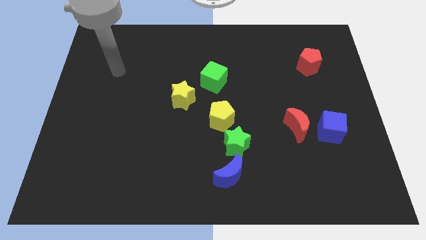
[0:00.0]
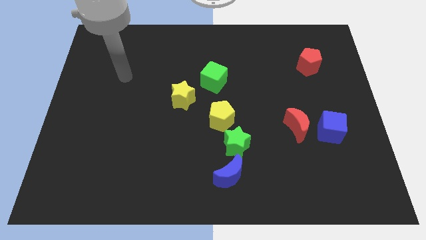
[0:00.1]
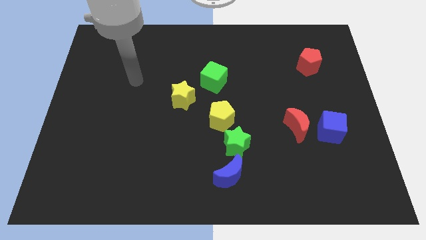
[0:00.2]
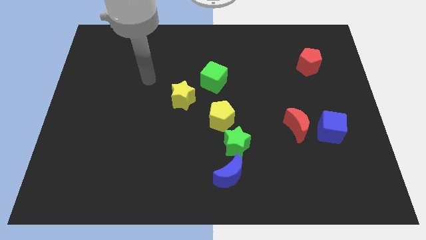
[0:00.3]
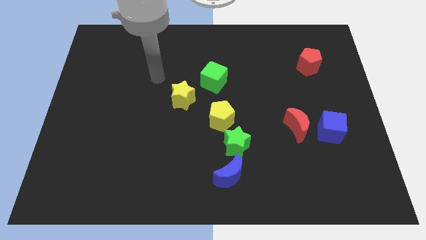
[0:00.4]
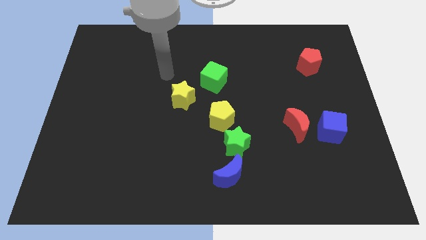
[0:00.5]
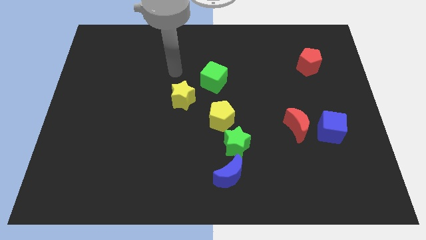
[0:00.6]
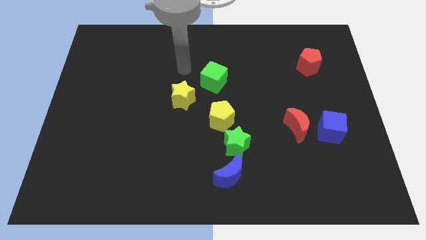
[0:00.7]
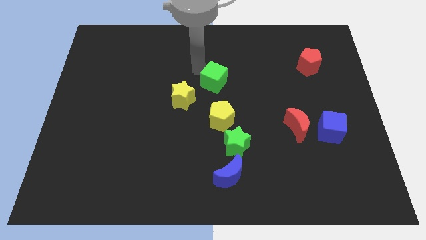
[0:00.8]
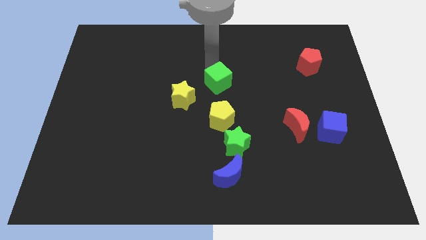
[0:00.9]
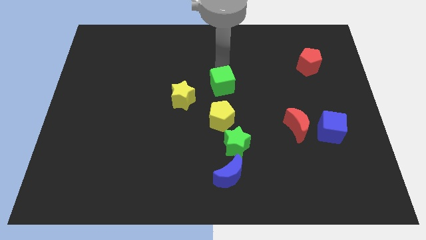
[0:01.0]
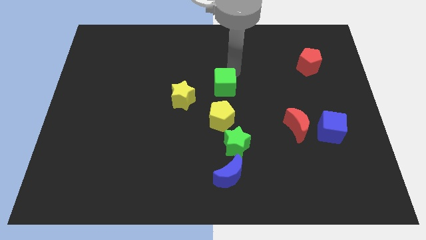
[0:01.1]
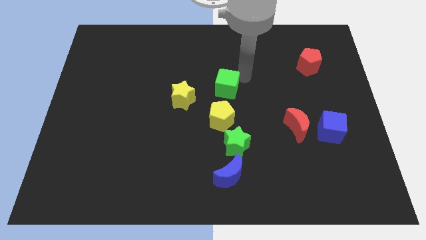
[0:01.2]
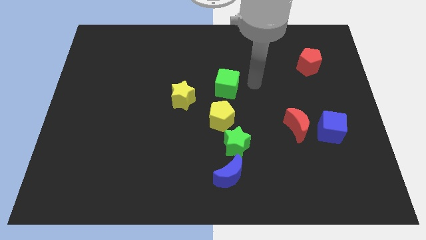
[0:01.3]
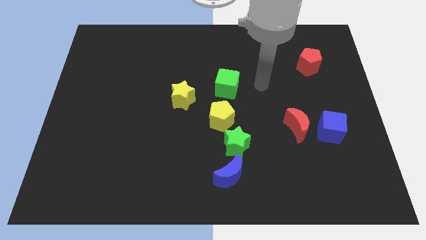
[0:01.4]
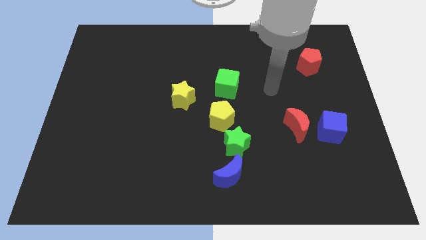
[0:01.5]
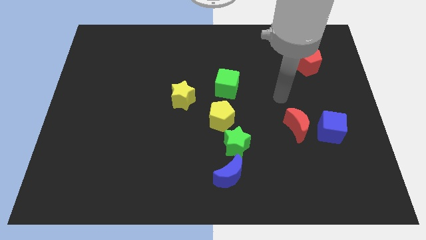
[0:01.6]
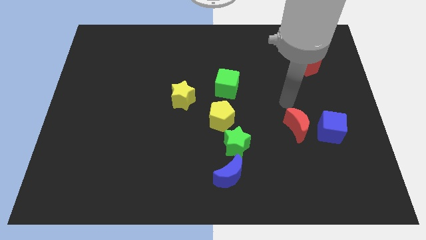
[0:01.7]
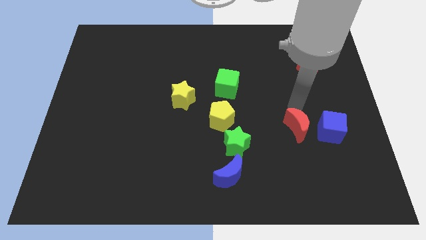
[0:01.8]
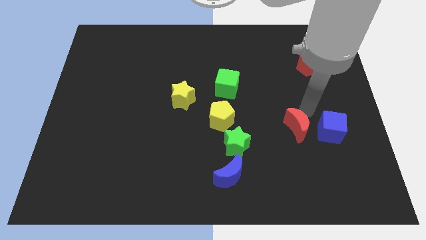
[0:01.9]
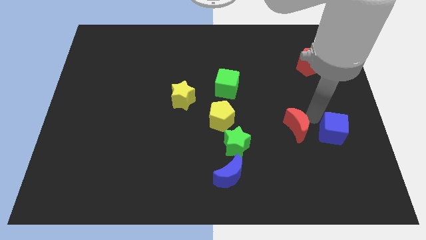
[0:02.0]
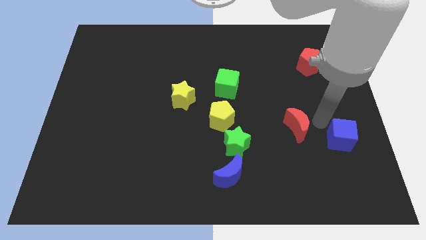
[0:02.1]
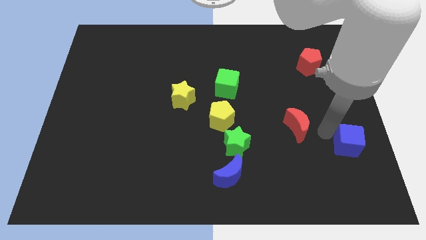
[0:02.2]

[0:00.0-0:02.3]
move the red moon away from the blue cube

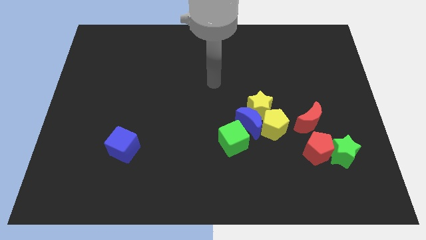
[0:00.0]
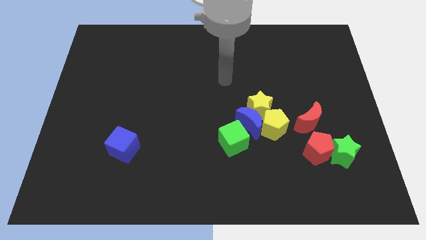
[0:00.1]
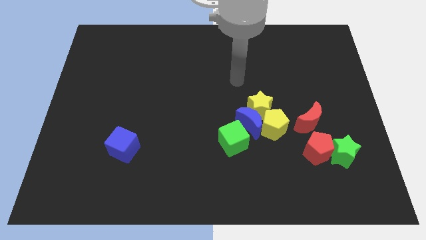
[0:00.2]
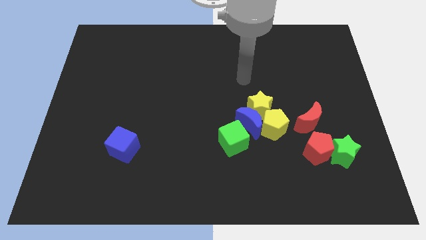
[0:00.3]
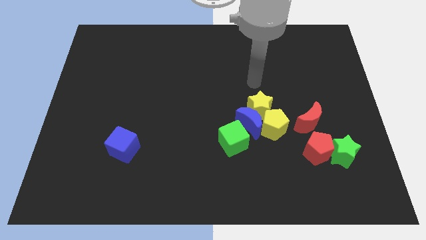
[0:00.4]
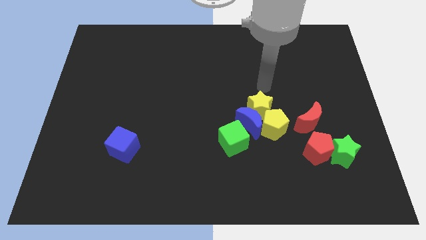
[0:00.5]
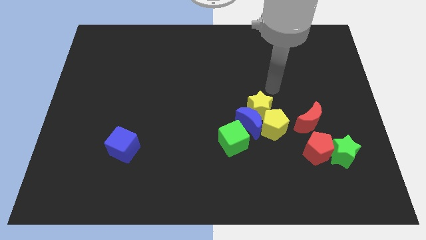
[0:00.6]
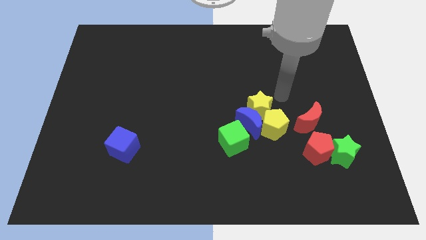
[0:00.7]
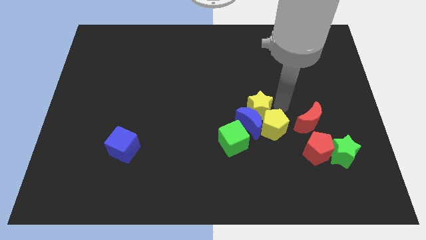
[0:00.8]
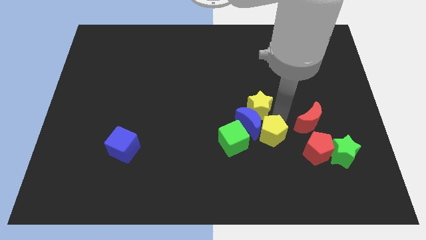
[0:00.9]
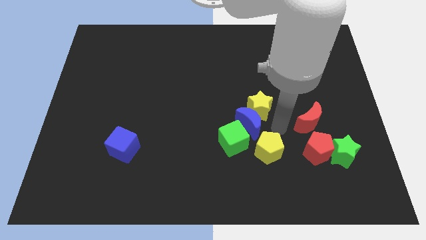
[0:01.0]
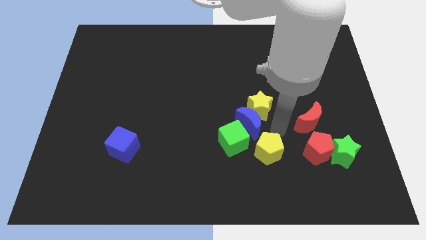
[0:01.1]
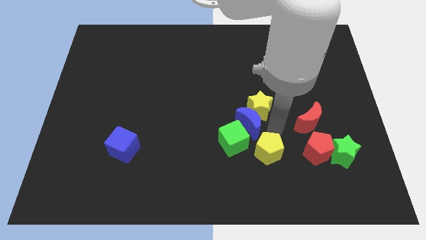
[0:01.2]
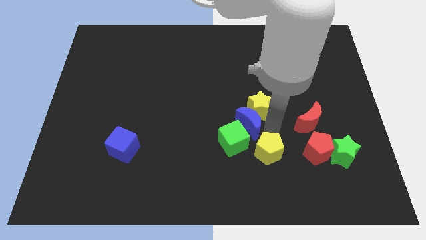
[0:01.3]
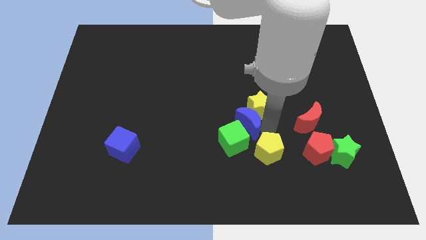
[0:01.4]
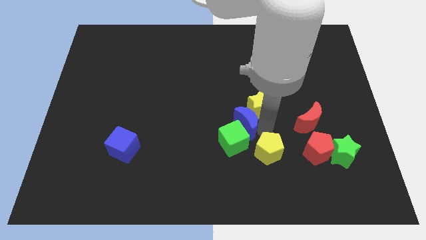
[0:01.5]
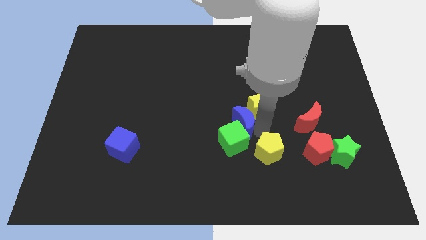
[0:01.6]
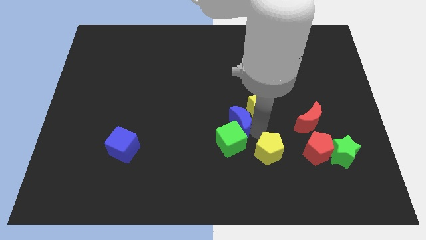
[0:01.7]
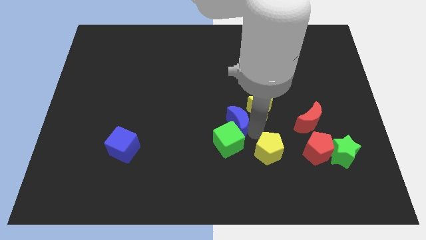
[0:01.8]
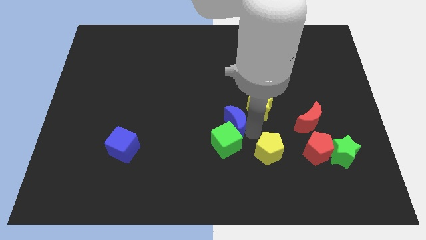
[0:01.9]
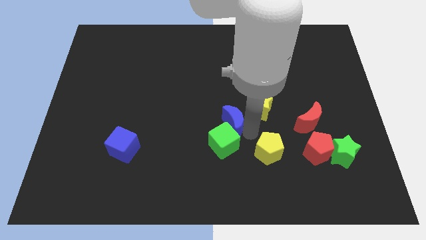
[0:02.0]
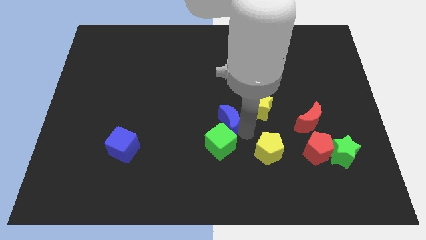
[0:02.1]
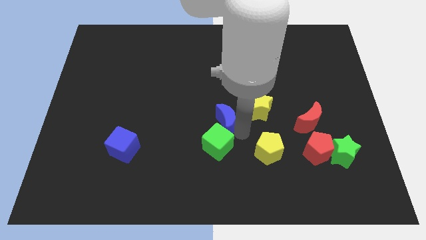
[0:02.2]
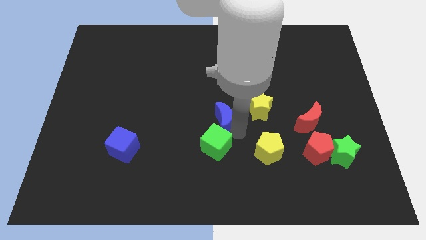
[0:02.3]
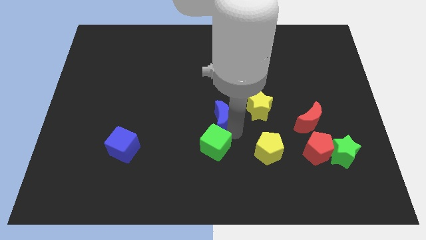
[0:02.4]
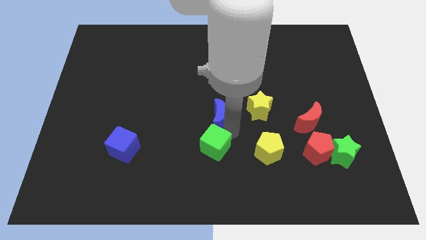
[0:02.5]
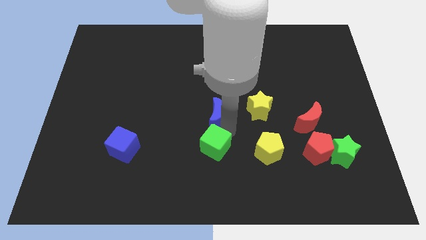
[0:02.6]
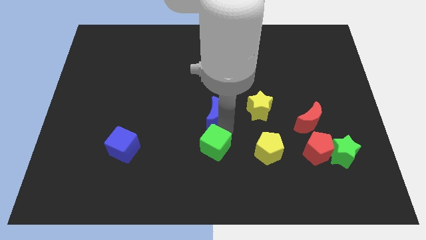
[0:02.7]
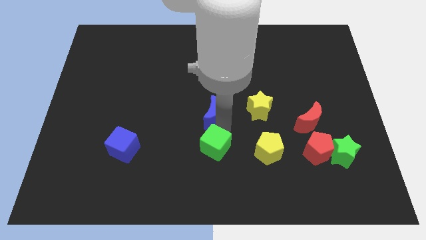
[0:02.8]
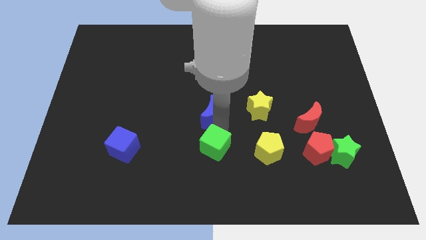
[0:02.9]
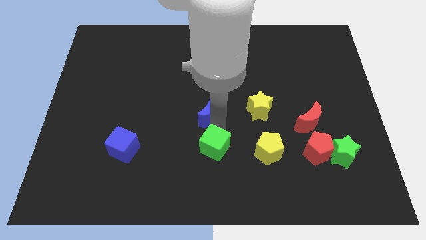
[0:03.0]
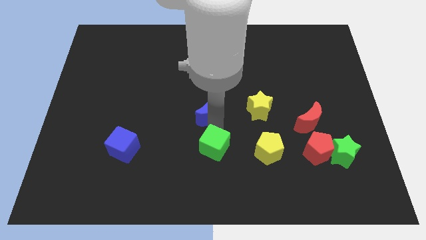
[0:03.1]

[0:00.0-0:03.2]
move the blue moon away from the yellow star, yellow pentagon, and green cube

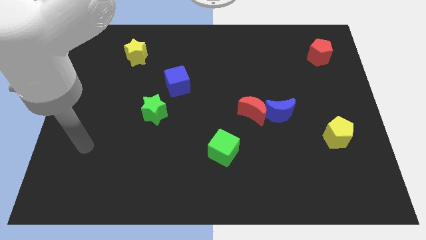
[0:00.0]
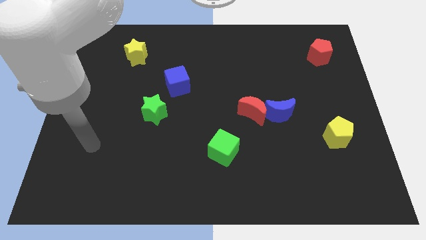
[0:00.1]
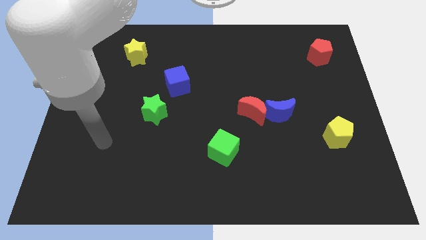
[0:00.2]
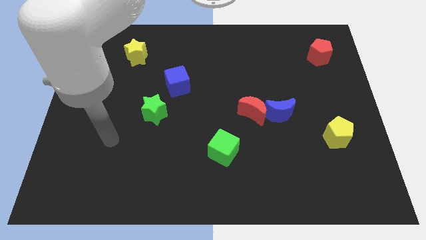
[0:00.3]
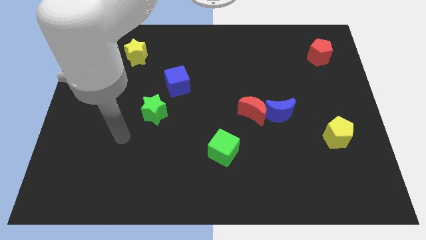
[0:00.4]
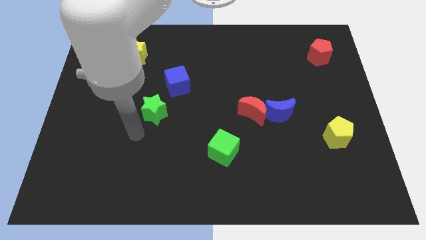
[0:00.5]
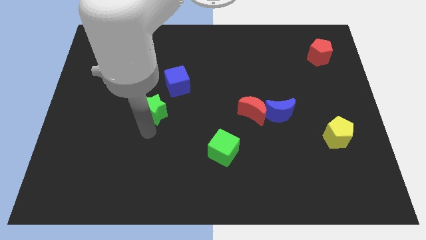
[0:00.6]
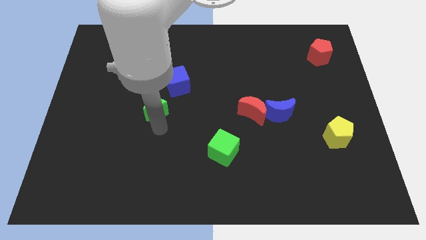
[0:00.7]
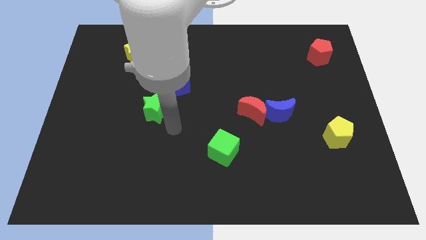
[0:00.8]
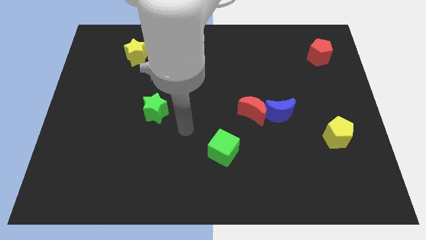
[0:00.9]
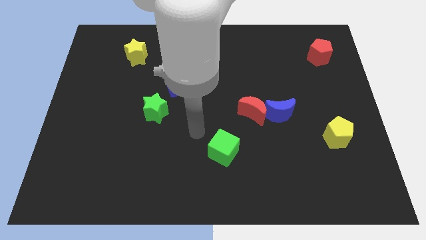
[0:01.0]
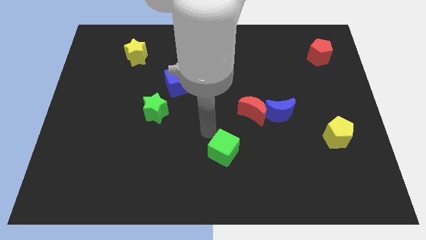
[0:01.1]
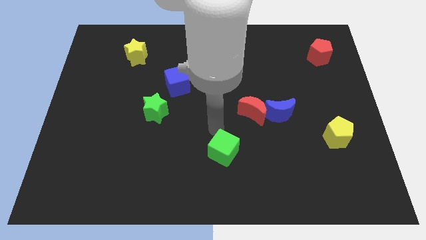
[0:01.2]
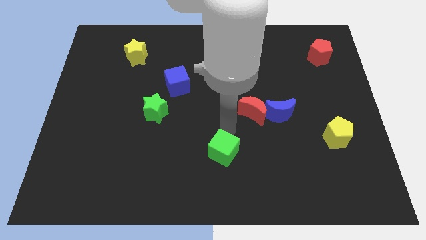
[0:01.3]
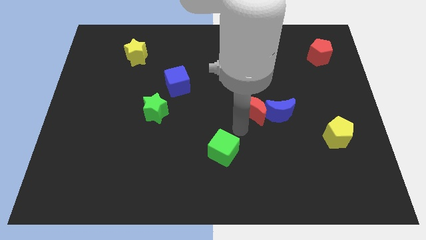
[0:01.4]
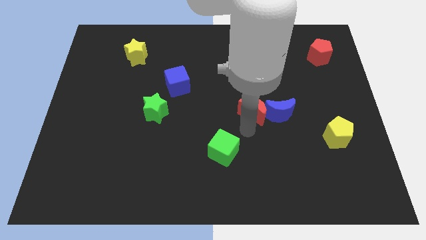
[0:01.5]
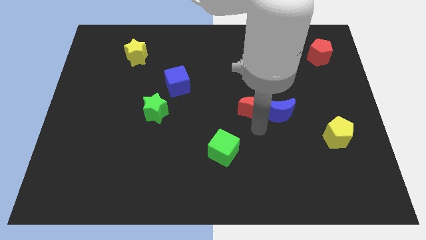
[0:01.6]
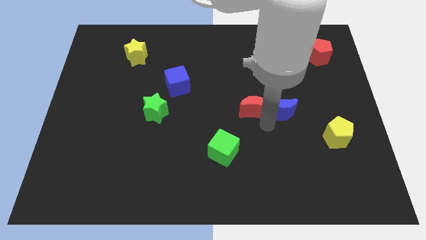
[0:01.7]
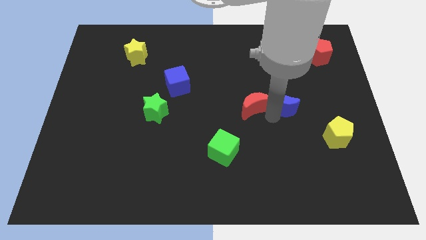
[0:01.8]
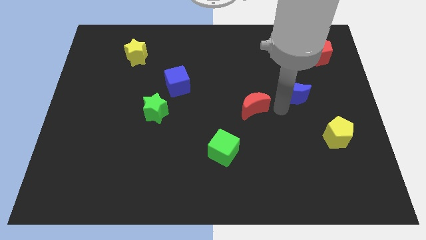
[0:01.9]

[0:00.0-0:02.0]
move the red moon away from the blue moon

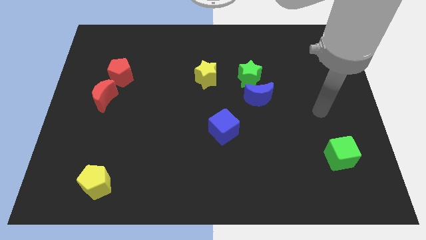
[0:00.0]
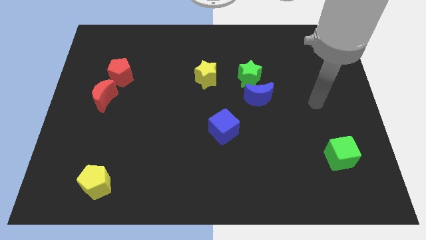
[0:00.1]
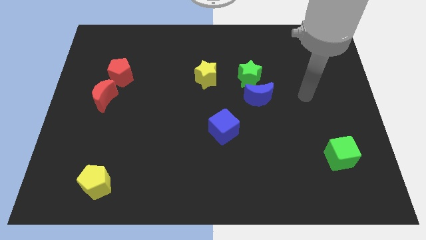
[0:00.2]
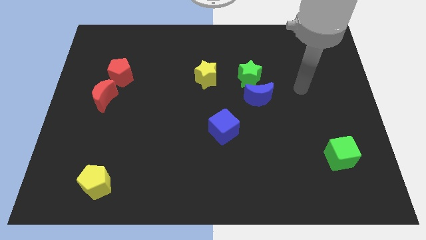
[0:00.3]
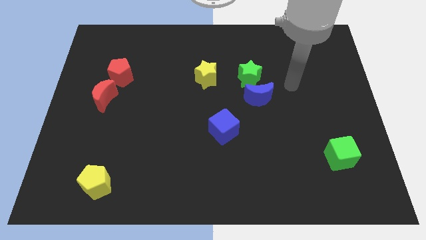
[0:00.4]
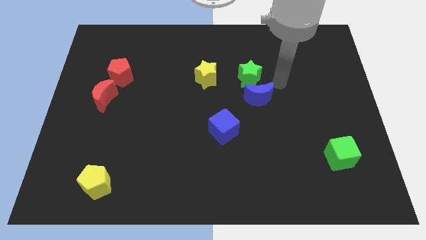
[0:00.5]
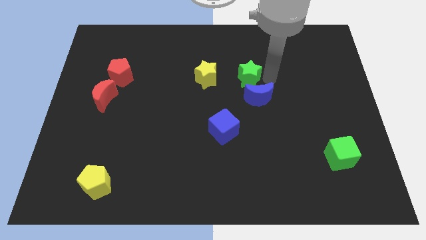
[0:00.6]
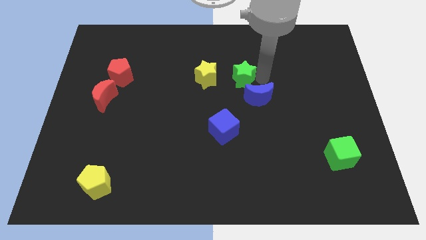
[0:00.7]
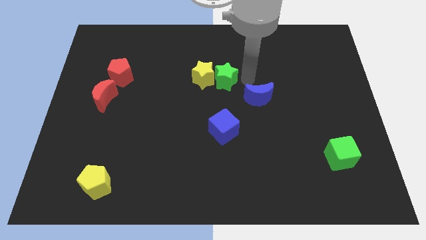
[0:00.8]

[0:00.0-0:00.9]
move the blue moon away from the green star

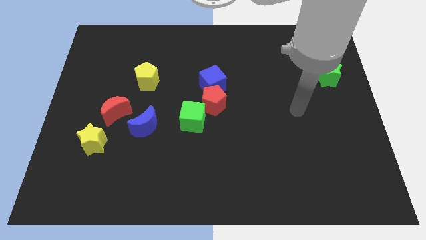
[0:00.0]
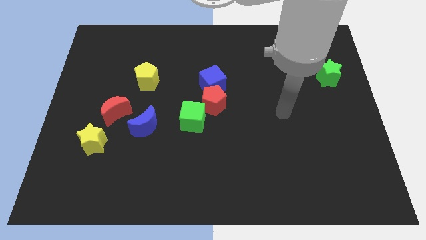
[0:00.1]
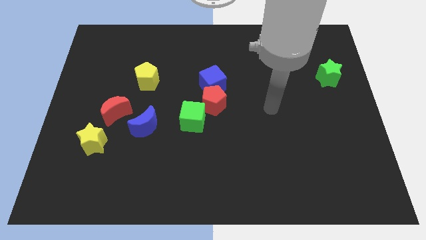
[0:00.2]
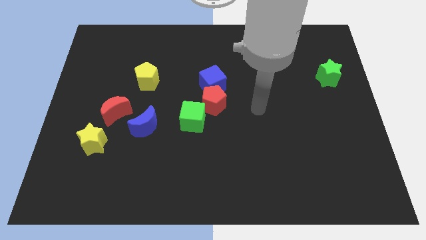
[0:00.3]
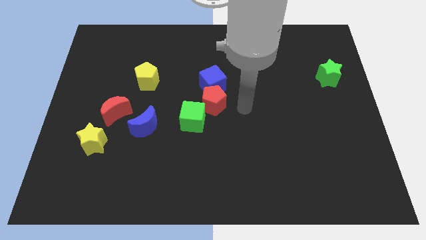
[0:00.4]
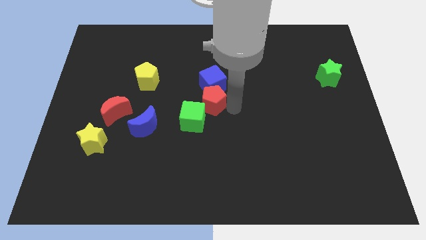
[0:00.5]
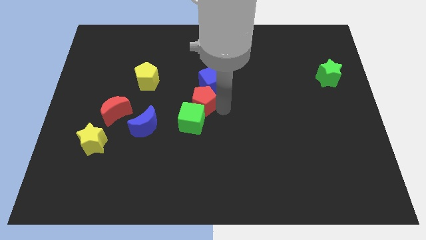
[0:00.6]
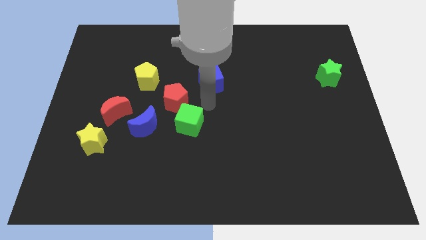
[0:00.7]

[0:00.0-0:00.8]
pull the blue cube apart from the red pentagon
